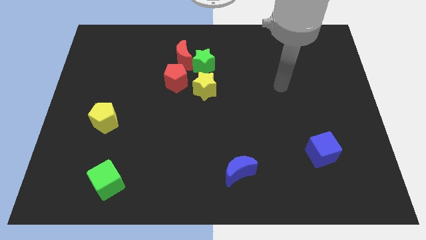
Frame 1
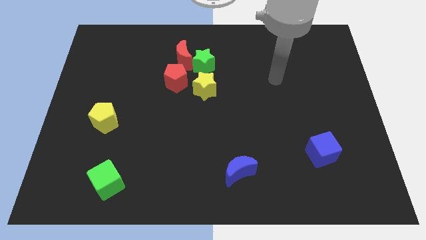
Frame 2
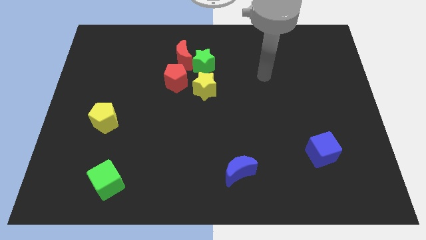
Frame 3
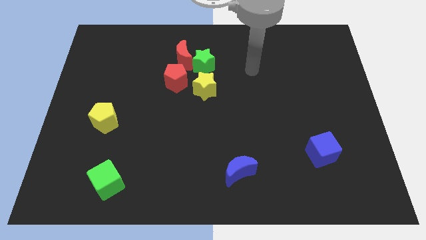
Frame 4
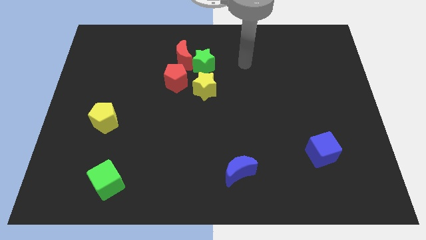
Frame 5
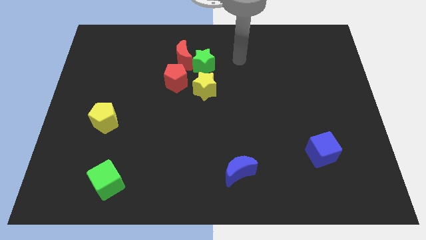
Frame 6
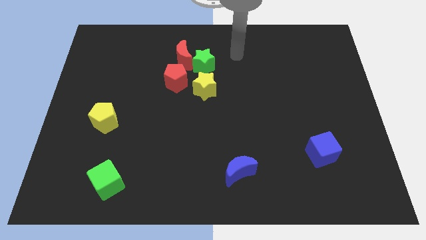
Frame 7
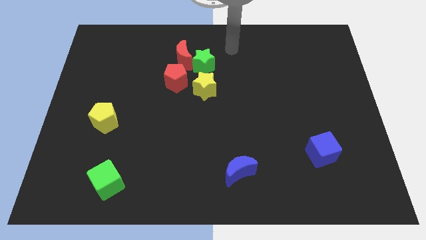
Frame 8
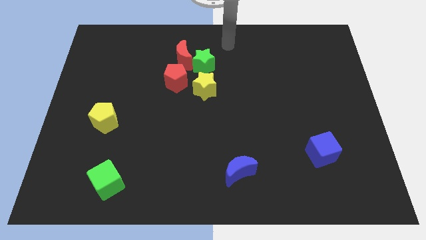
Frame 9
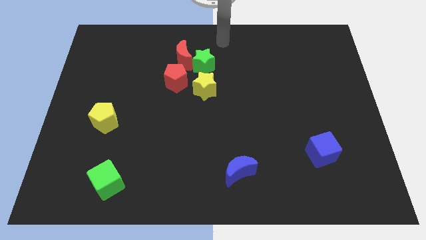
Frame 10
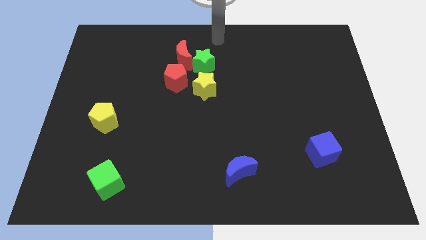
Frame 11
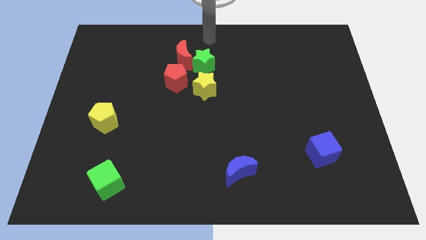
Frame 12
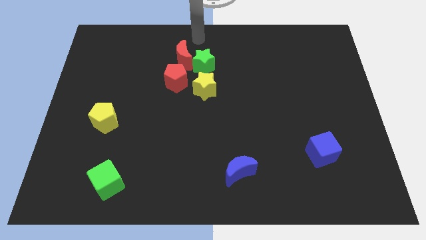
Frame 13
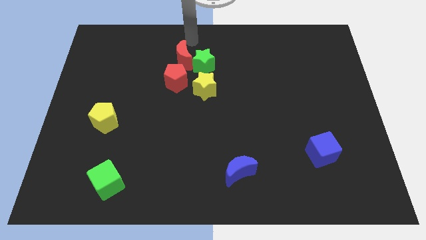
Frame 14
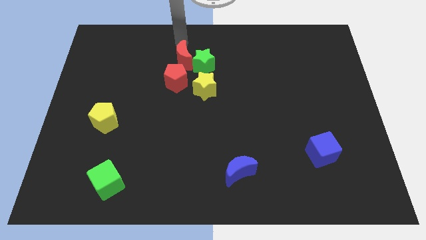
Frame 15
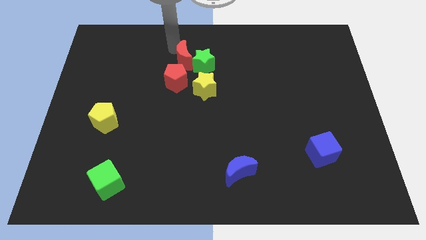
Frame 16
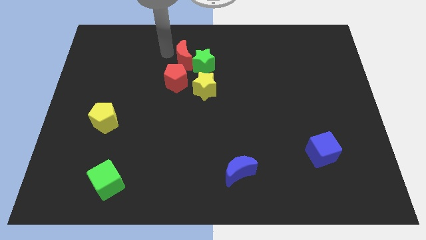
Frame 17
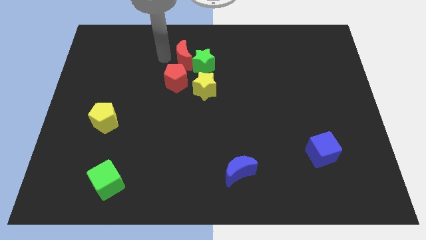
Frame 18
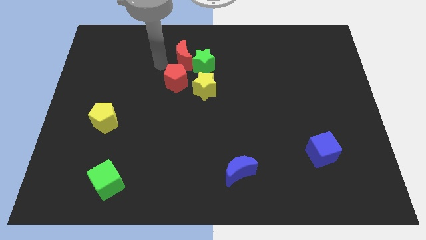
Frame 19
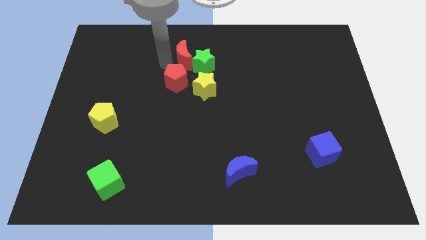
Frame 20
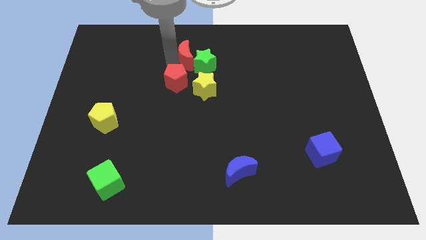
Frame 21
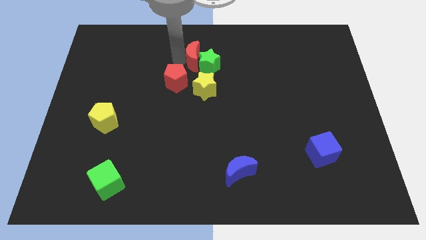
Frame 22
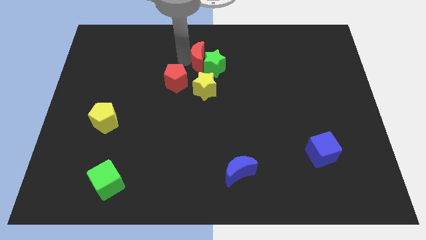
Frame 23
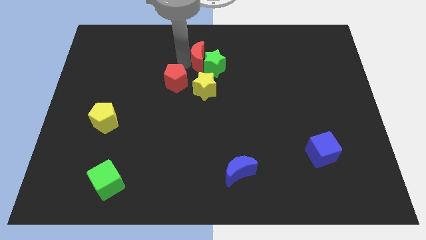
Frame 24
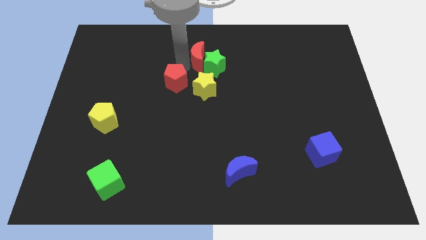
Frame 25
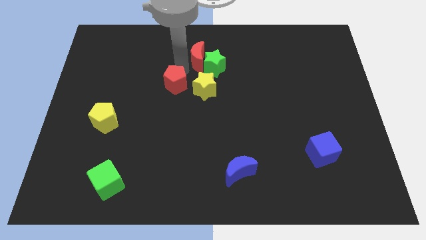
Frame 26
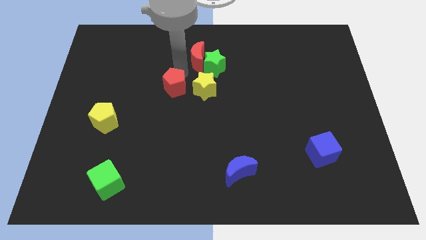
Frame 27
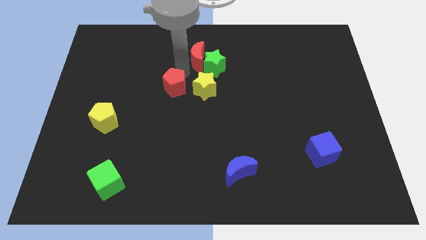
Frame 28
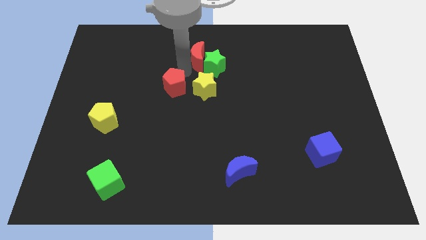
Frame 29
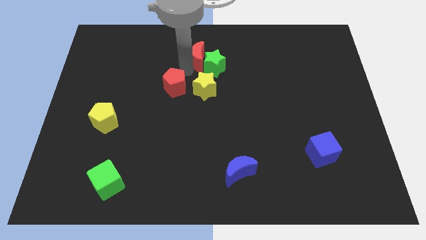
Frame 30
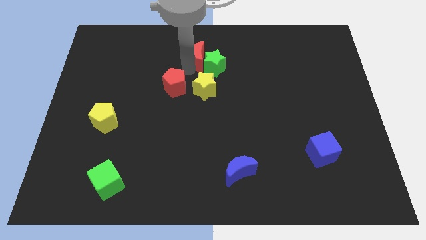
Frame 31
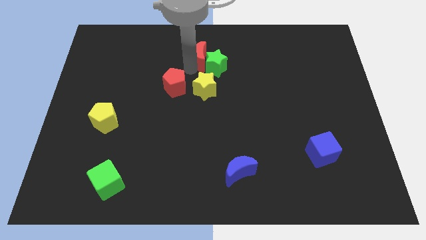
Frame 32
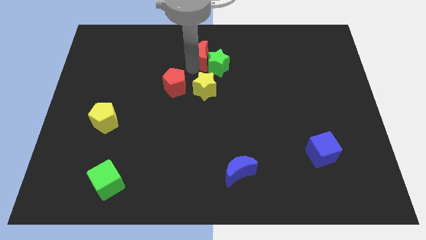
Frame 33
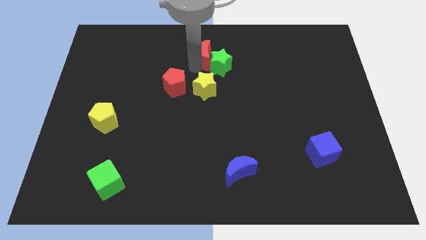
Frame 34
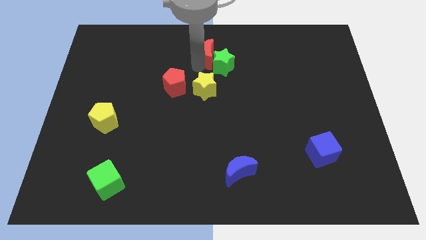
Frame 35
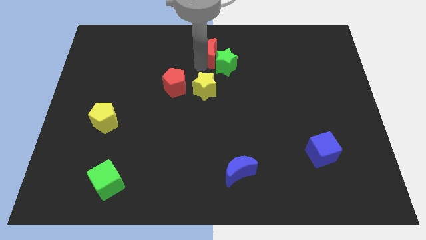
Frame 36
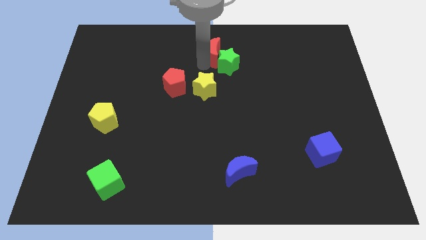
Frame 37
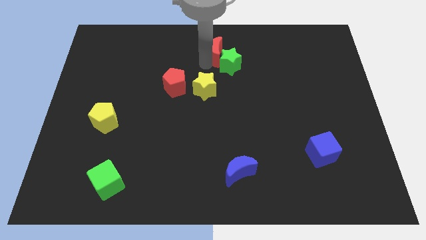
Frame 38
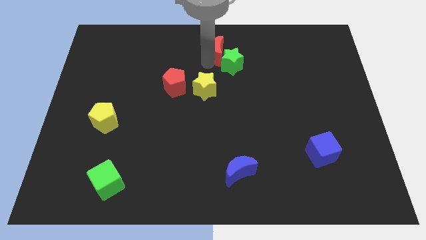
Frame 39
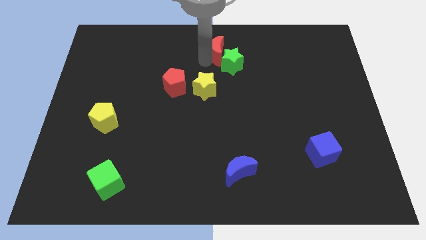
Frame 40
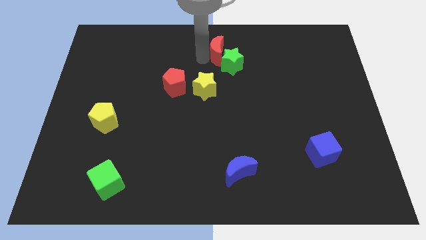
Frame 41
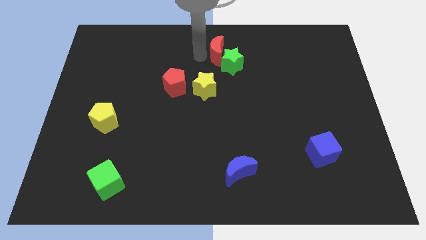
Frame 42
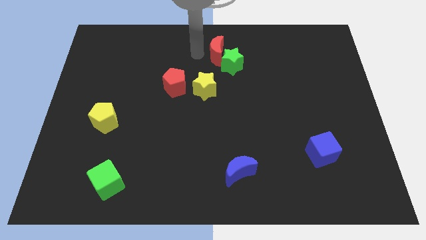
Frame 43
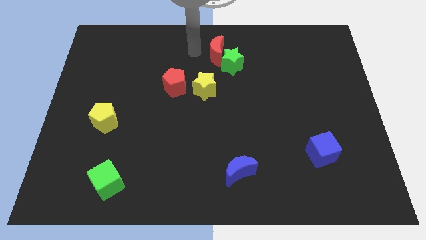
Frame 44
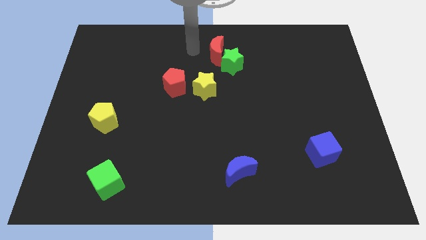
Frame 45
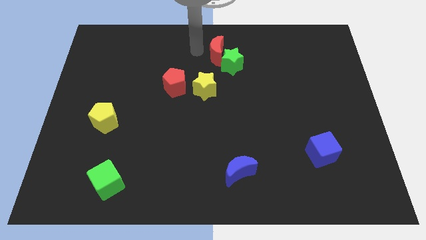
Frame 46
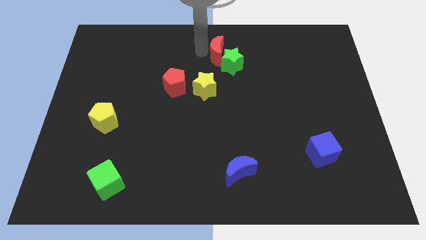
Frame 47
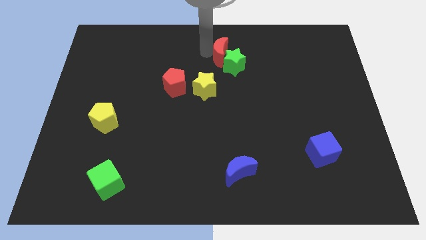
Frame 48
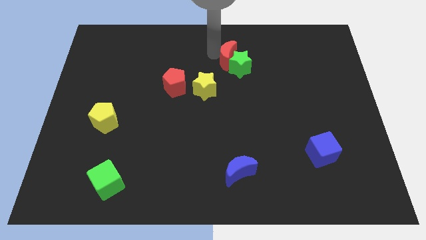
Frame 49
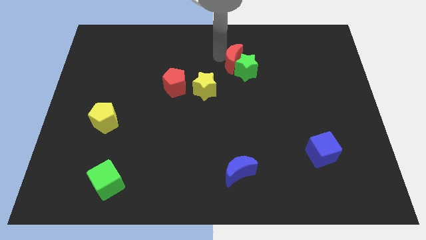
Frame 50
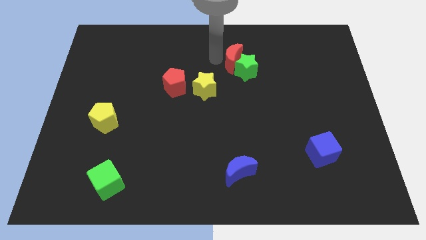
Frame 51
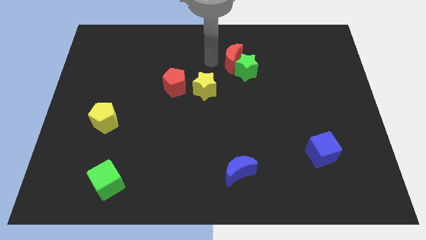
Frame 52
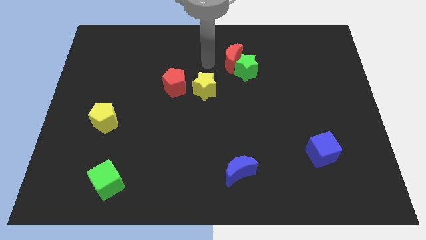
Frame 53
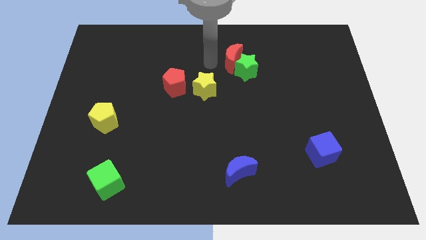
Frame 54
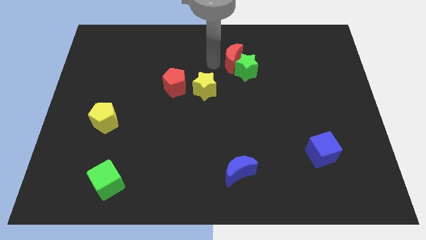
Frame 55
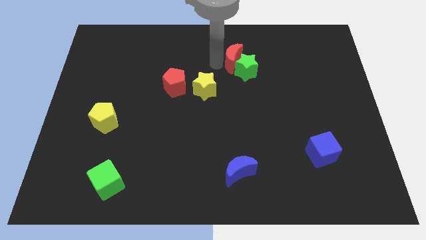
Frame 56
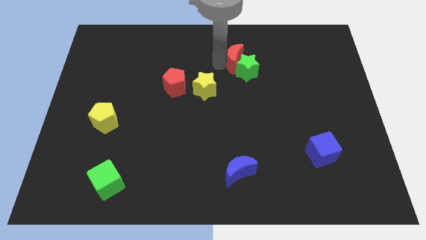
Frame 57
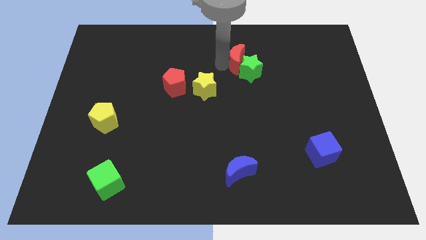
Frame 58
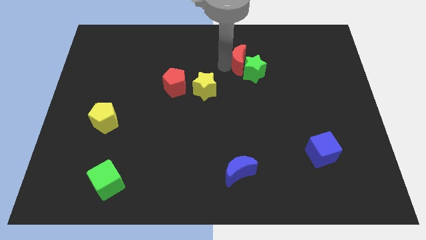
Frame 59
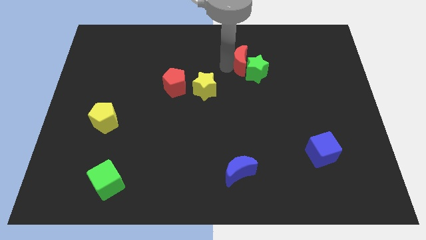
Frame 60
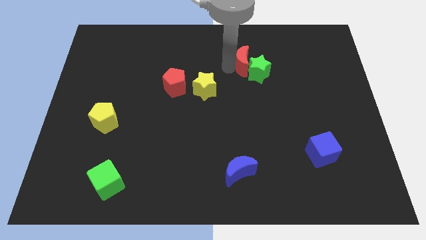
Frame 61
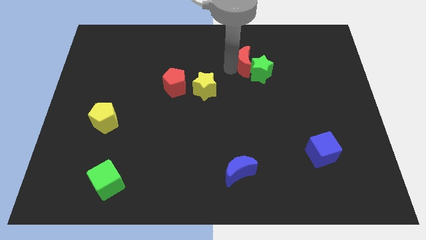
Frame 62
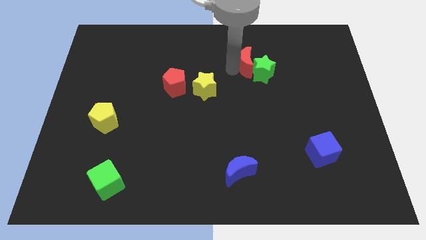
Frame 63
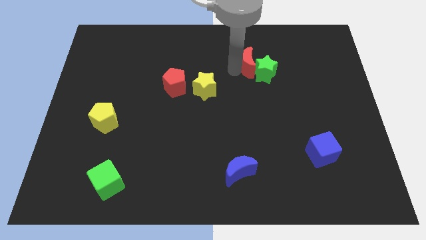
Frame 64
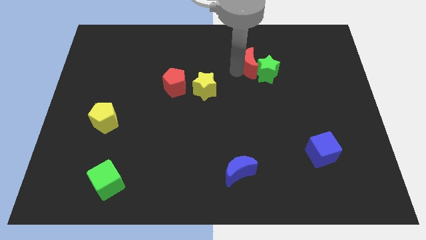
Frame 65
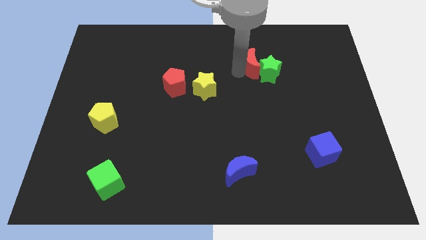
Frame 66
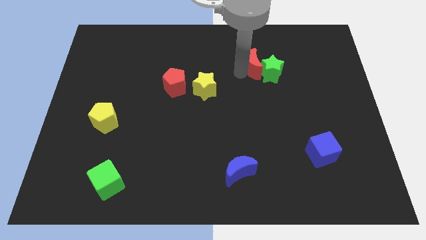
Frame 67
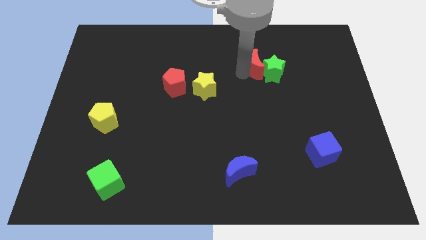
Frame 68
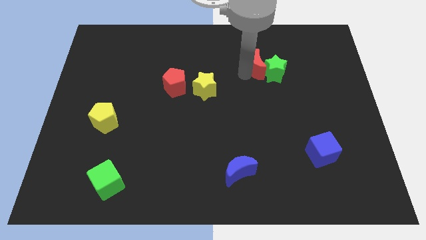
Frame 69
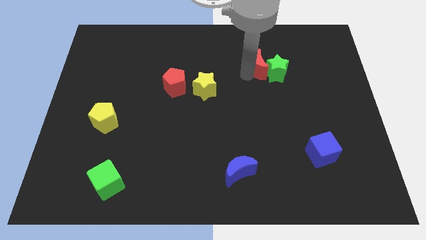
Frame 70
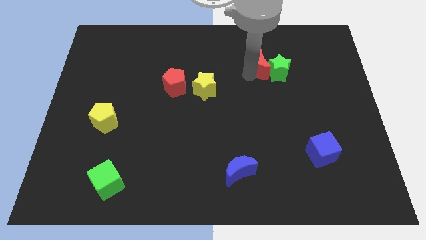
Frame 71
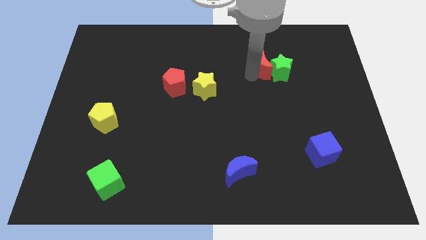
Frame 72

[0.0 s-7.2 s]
slide the red moon to the right

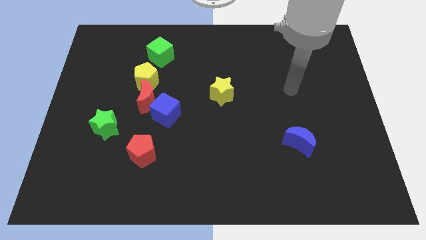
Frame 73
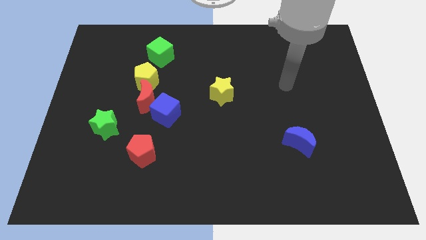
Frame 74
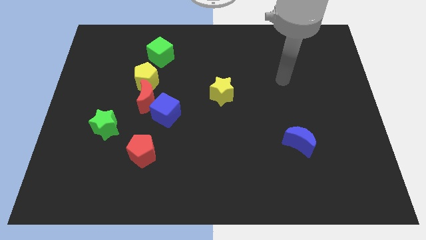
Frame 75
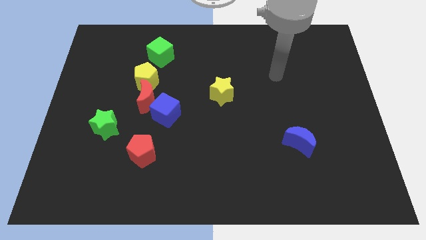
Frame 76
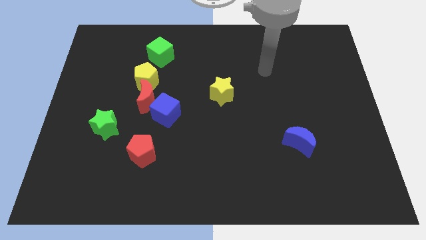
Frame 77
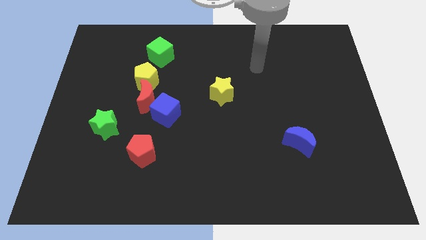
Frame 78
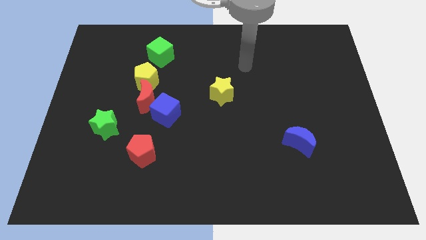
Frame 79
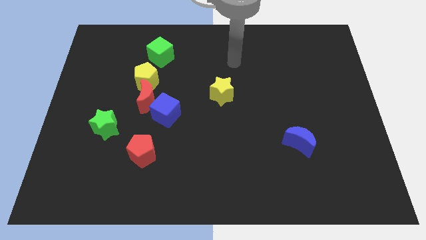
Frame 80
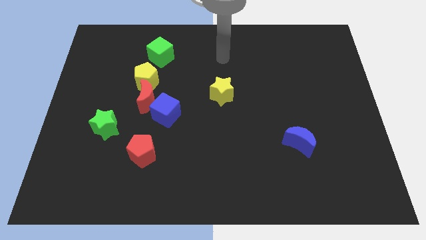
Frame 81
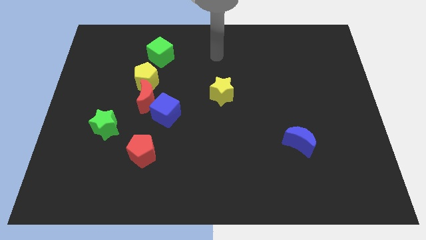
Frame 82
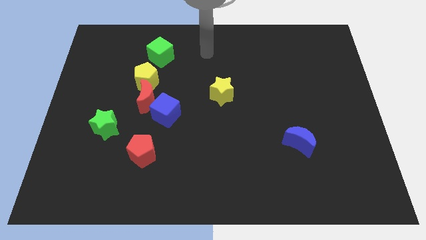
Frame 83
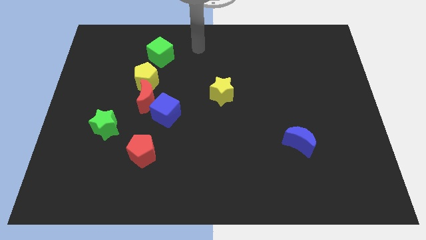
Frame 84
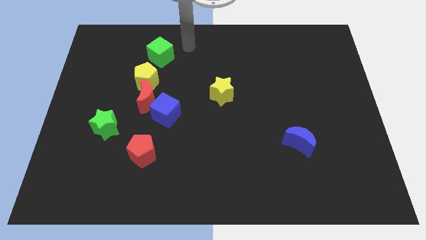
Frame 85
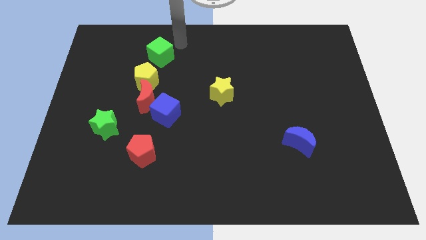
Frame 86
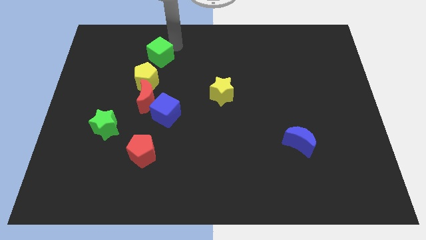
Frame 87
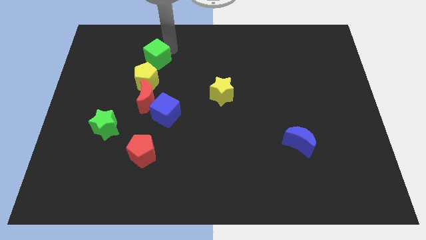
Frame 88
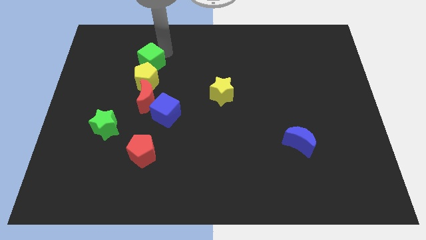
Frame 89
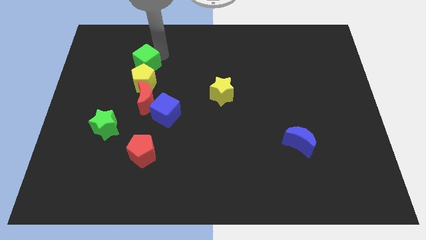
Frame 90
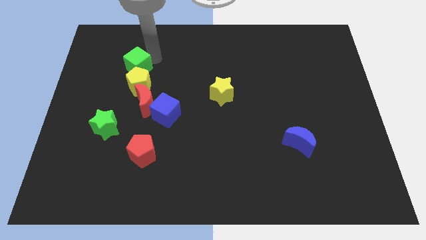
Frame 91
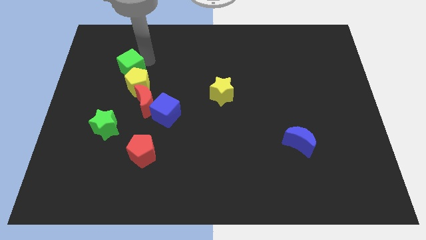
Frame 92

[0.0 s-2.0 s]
push the green cube a little diagonally down and left
